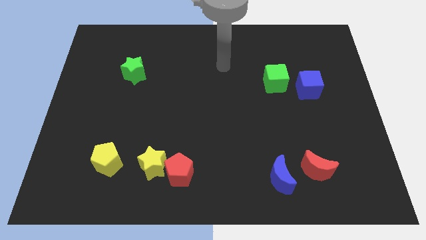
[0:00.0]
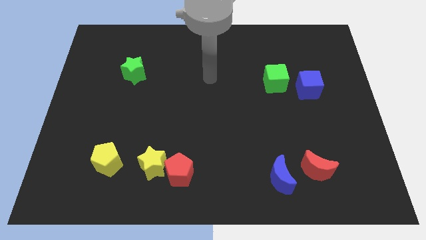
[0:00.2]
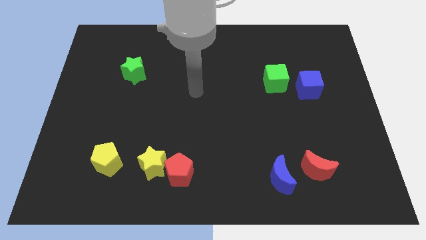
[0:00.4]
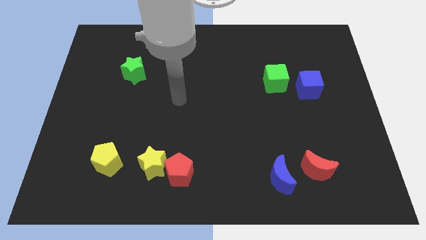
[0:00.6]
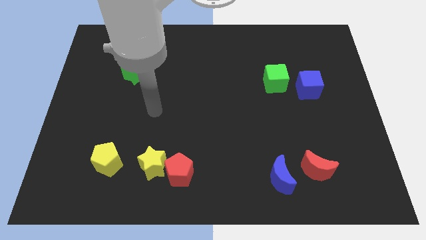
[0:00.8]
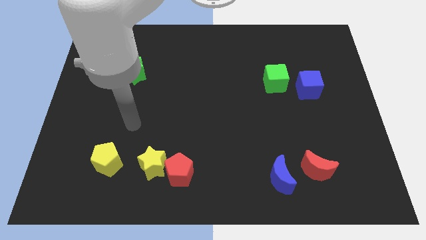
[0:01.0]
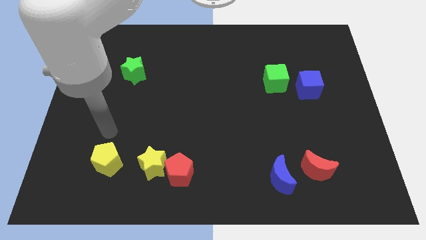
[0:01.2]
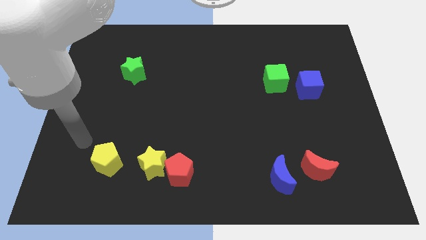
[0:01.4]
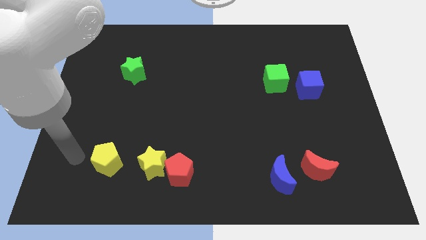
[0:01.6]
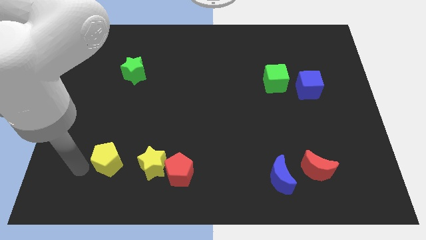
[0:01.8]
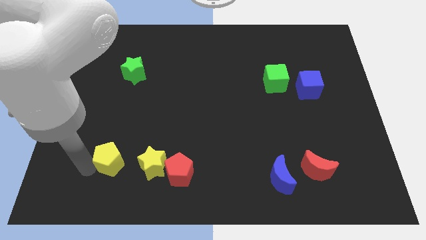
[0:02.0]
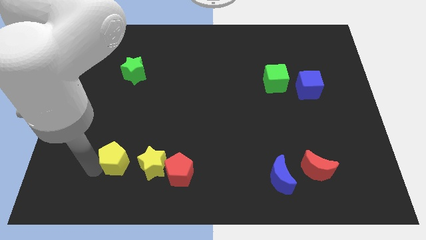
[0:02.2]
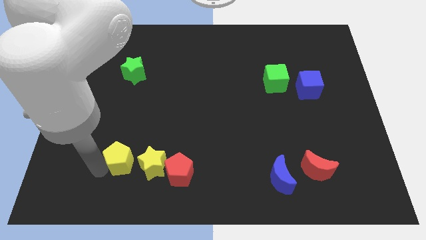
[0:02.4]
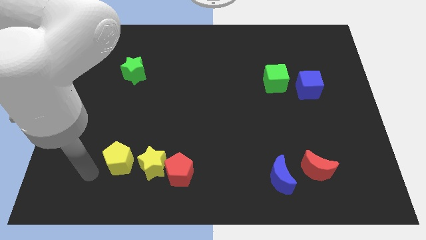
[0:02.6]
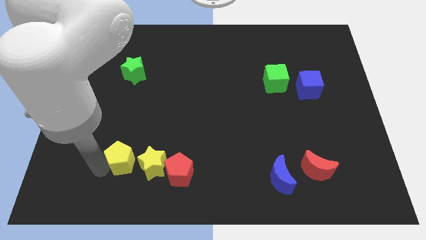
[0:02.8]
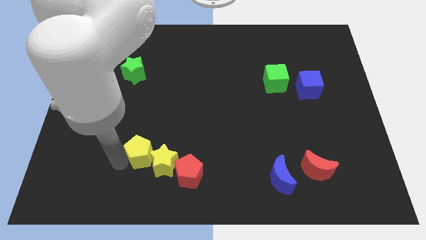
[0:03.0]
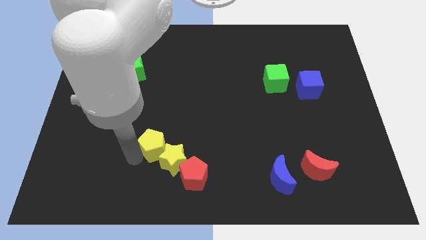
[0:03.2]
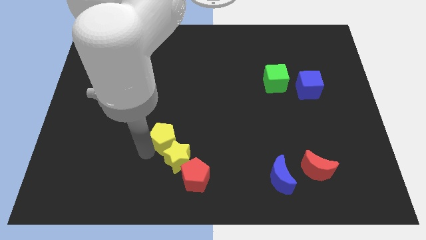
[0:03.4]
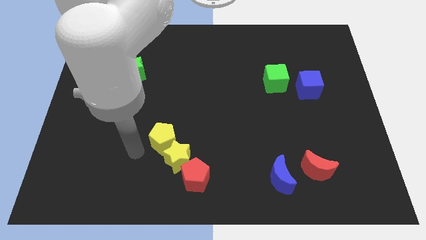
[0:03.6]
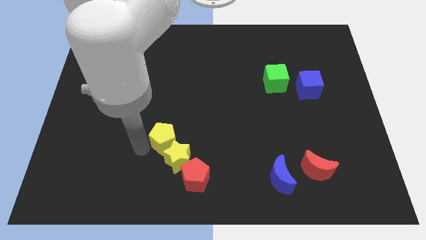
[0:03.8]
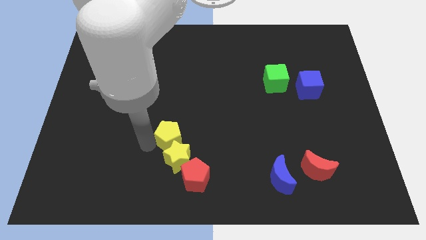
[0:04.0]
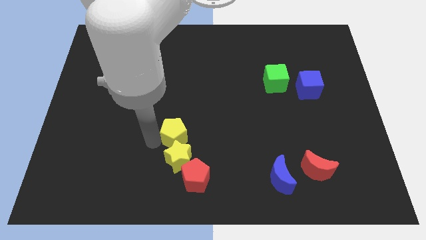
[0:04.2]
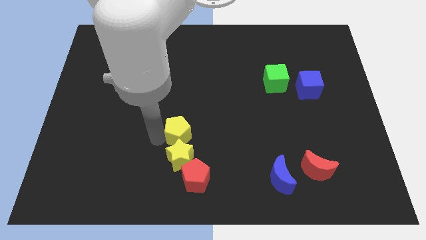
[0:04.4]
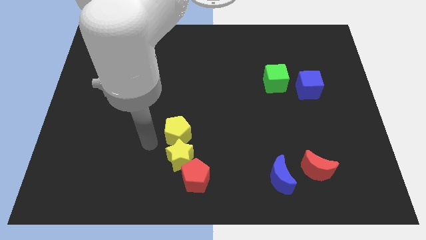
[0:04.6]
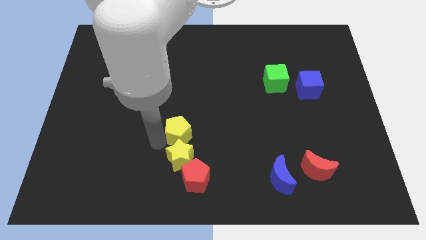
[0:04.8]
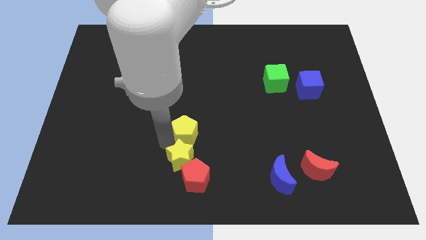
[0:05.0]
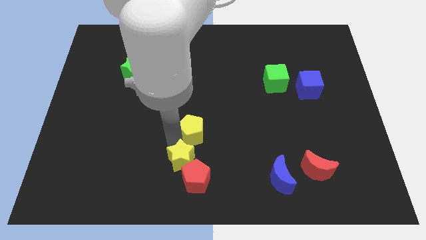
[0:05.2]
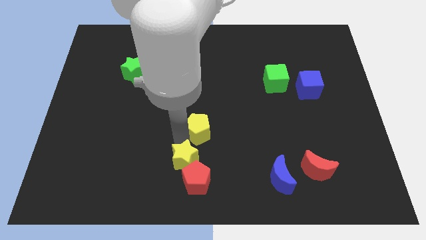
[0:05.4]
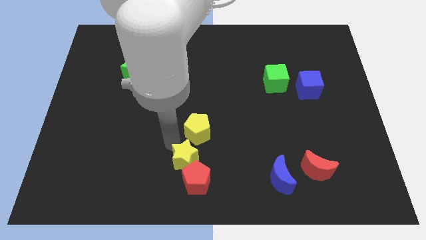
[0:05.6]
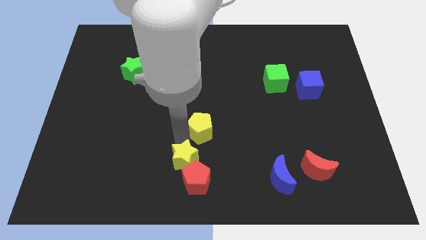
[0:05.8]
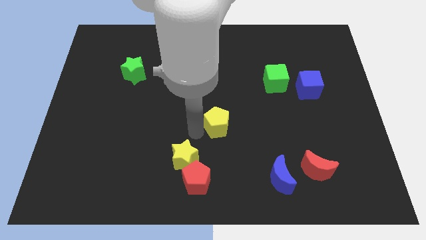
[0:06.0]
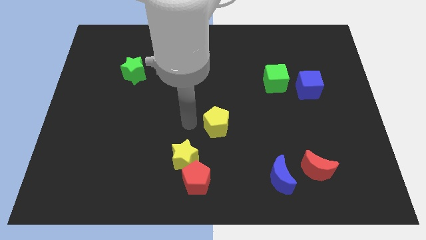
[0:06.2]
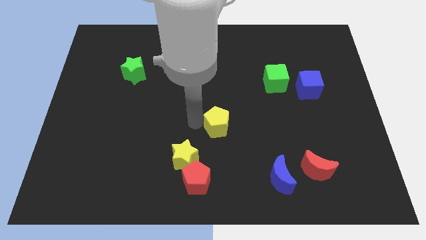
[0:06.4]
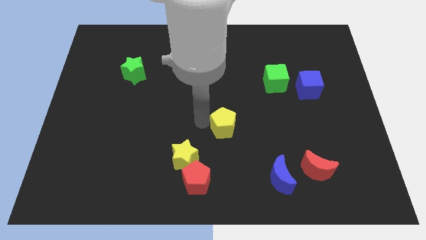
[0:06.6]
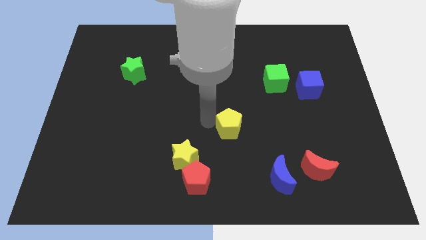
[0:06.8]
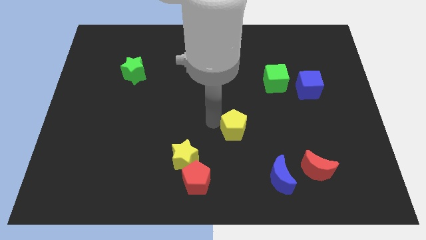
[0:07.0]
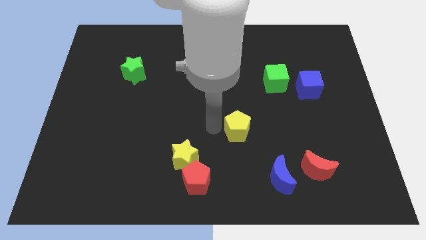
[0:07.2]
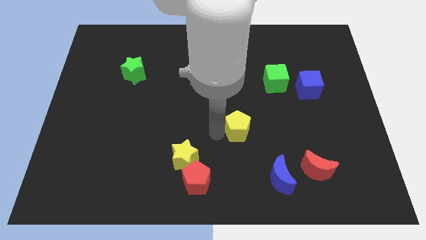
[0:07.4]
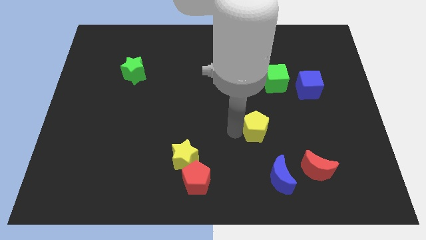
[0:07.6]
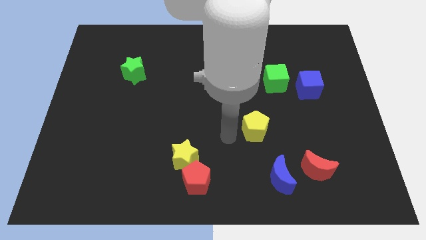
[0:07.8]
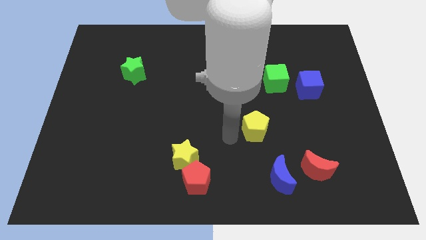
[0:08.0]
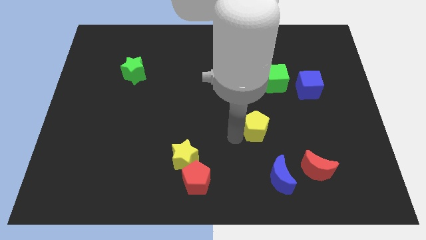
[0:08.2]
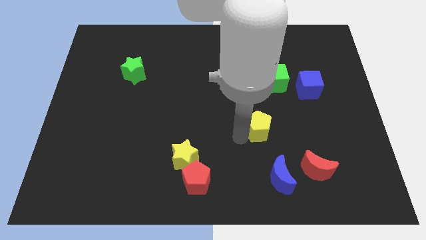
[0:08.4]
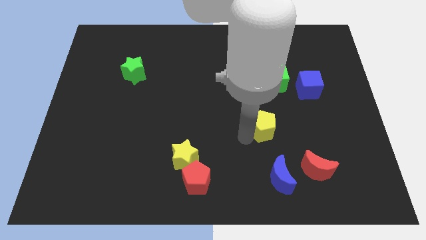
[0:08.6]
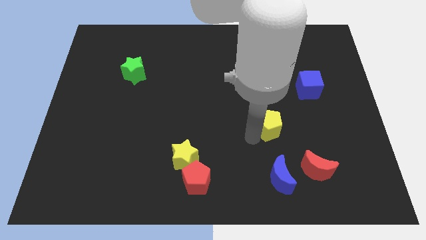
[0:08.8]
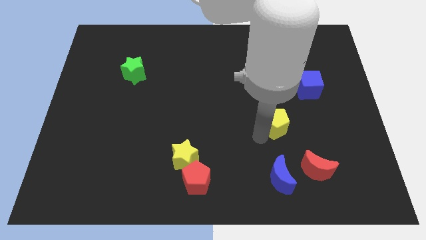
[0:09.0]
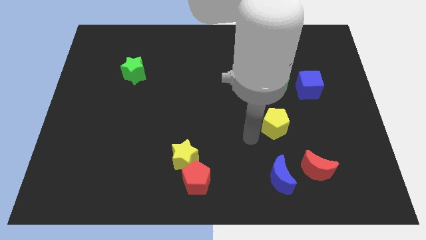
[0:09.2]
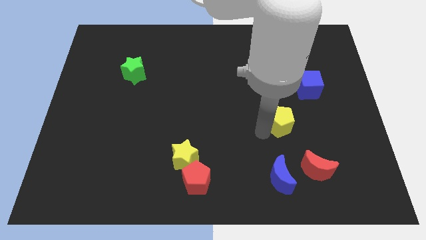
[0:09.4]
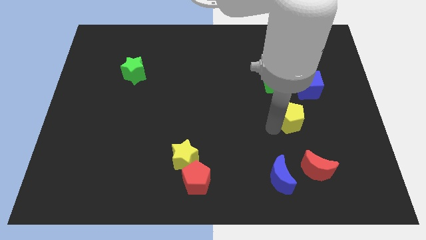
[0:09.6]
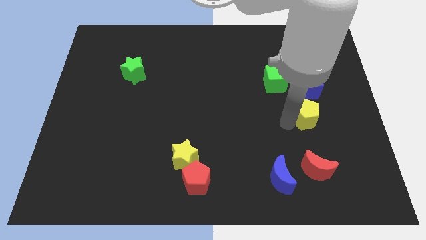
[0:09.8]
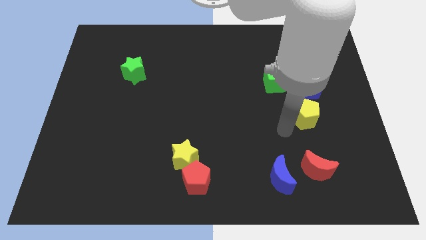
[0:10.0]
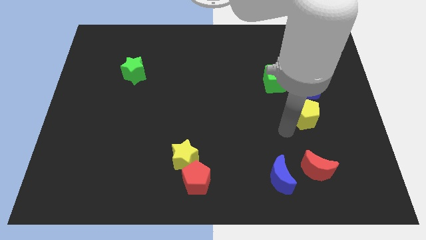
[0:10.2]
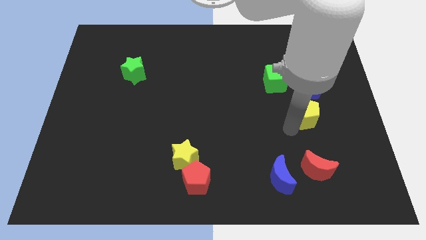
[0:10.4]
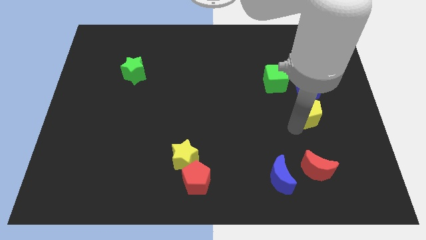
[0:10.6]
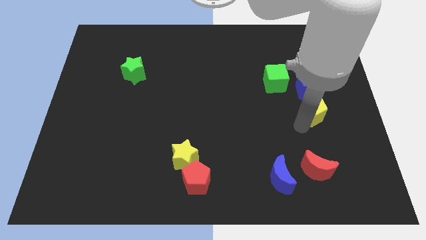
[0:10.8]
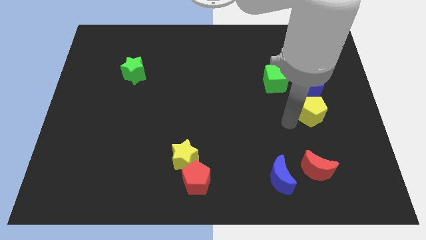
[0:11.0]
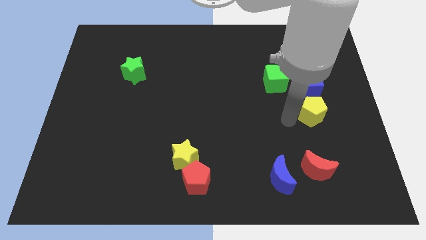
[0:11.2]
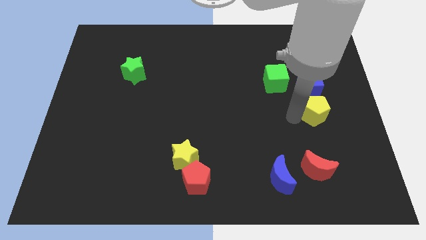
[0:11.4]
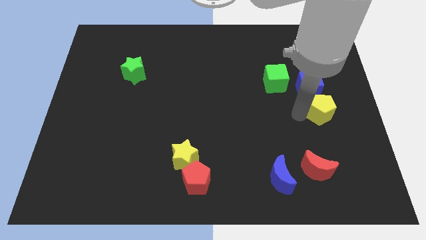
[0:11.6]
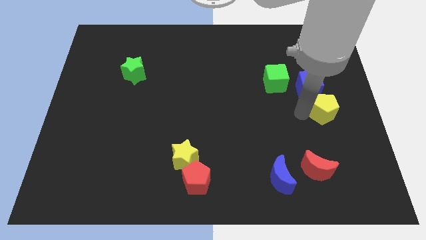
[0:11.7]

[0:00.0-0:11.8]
slide the yellow pentagon to the right side of the board
